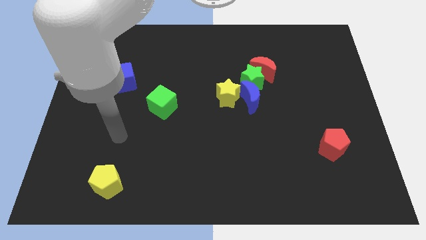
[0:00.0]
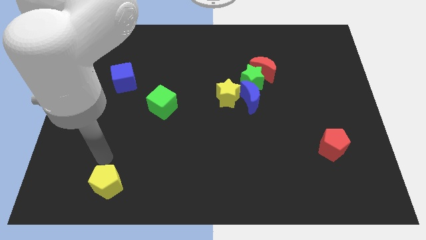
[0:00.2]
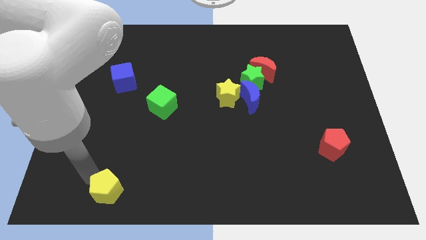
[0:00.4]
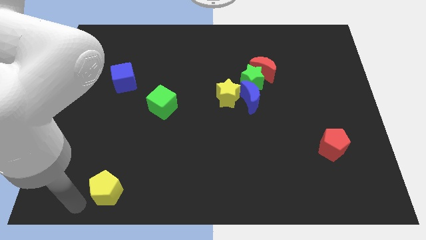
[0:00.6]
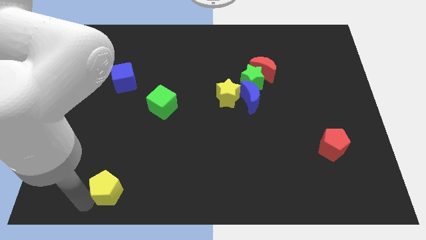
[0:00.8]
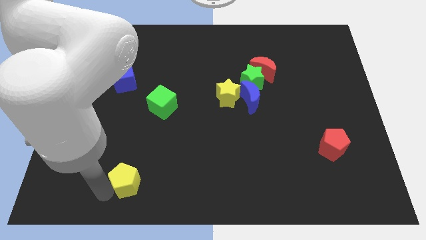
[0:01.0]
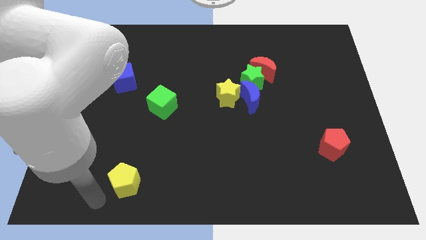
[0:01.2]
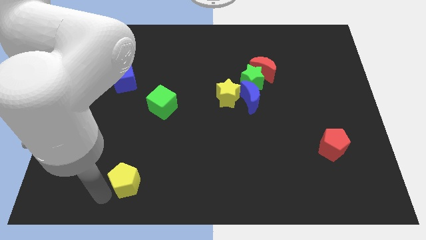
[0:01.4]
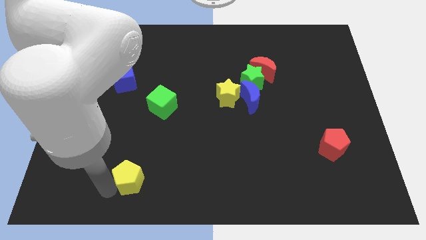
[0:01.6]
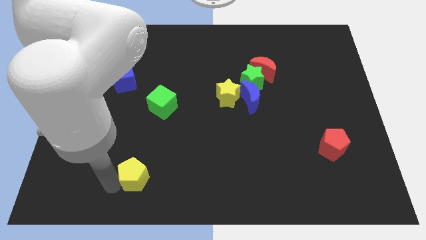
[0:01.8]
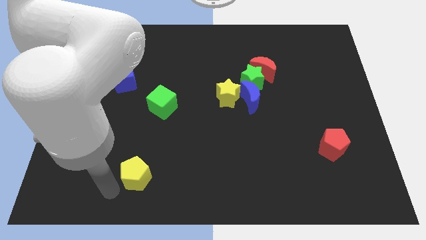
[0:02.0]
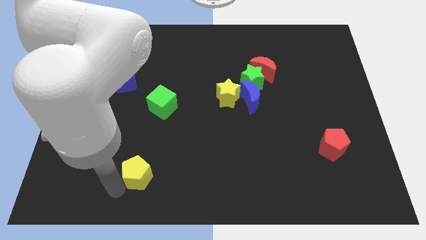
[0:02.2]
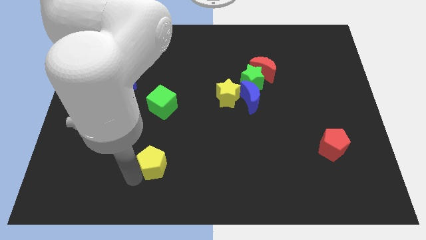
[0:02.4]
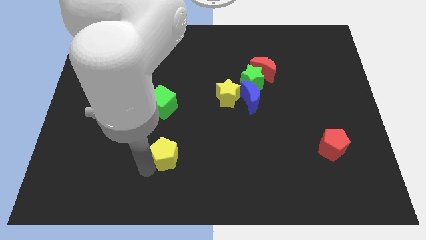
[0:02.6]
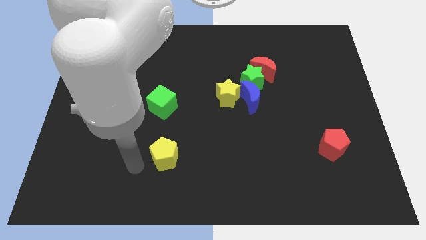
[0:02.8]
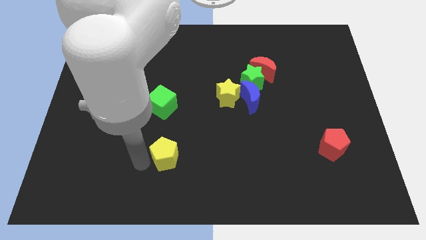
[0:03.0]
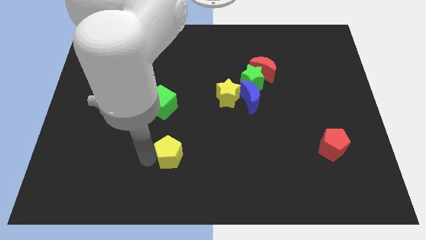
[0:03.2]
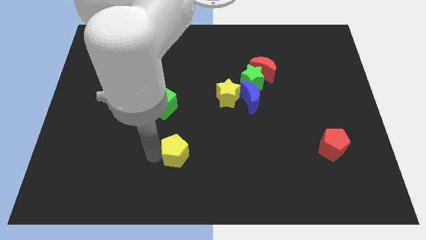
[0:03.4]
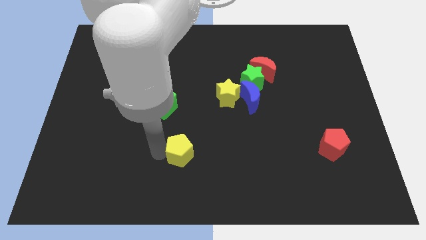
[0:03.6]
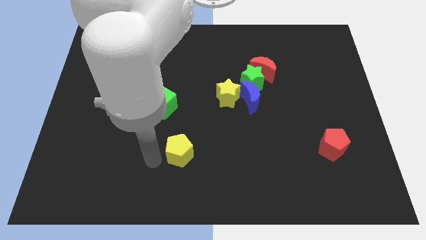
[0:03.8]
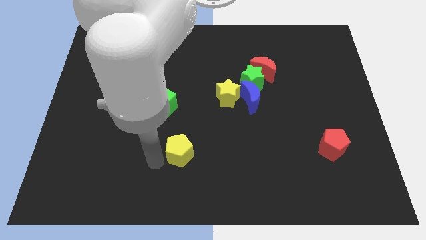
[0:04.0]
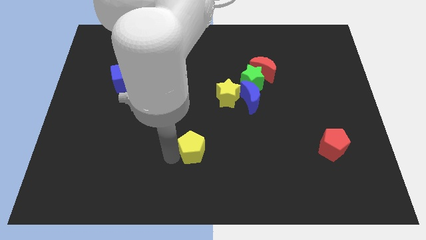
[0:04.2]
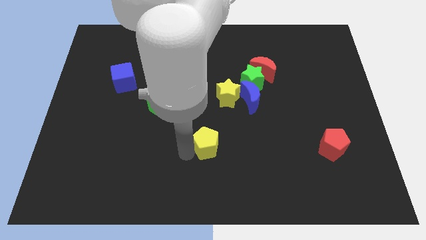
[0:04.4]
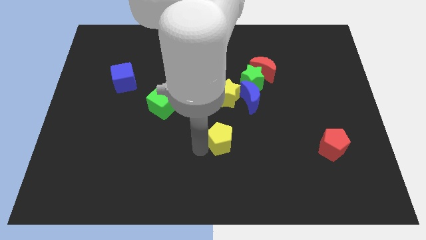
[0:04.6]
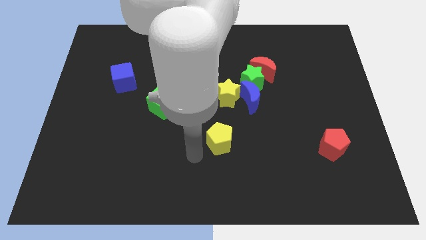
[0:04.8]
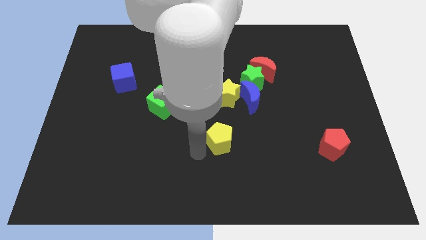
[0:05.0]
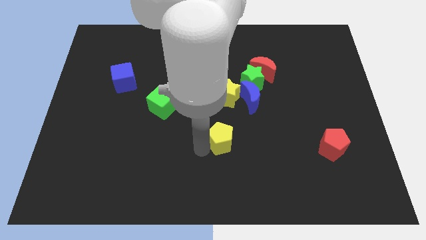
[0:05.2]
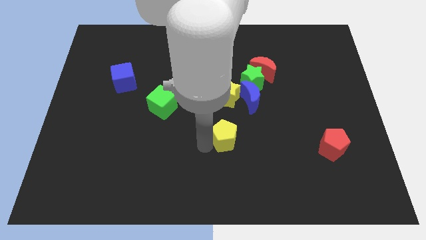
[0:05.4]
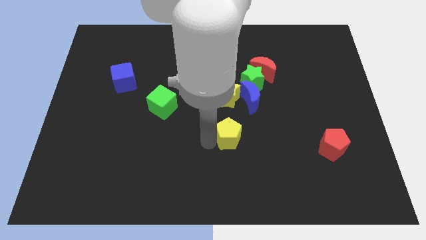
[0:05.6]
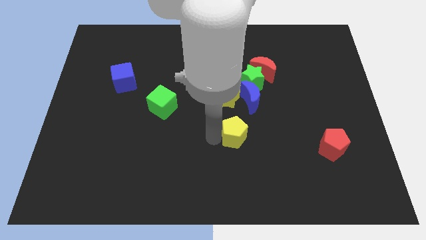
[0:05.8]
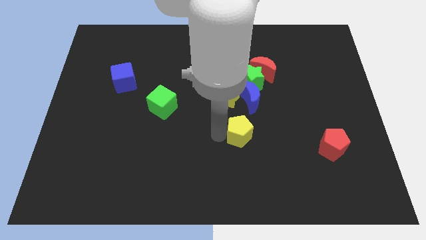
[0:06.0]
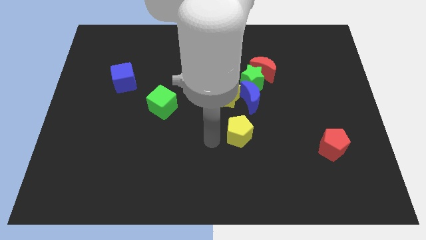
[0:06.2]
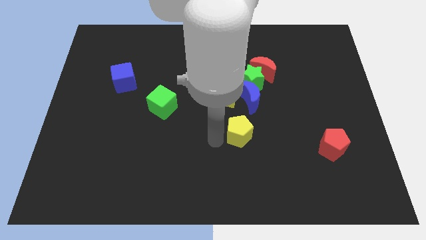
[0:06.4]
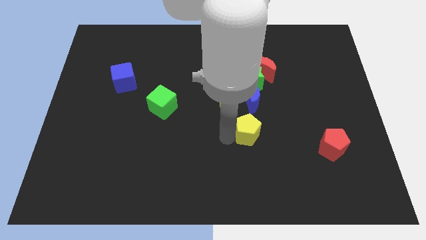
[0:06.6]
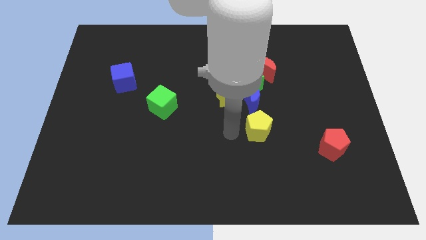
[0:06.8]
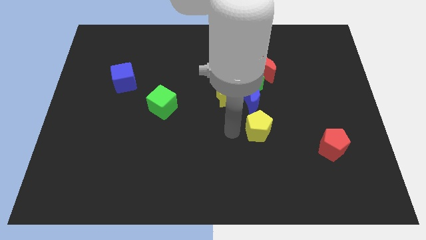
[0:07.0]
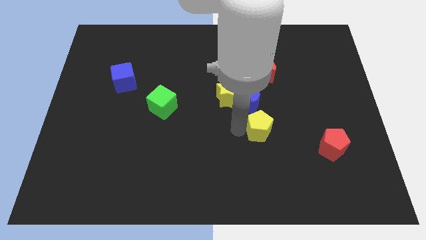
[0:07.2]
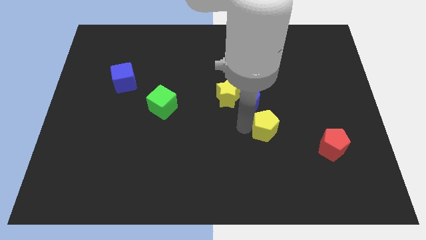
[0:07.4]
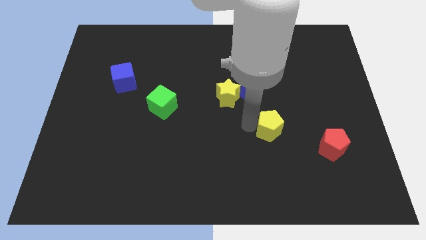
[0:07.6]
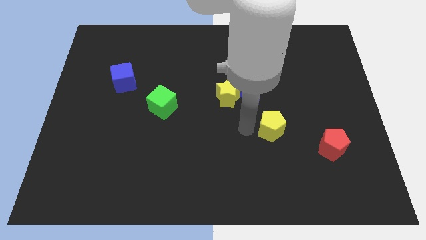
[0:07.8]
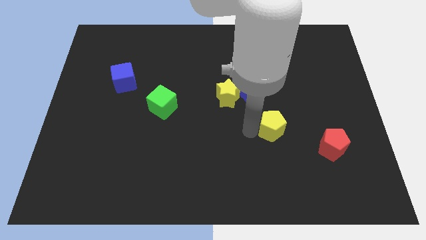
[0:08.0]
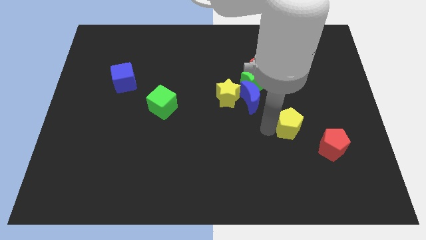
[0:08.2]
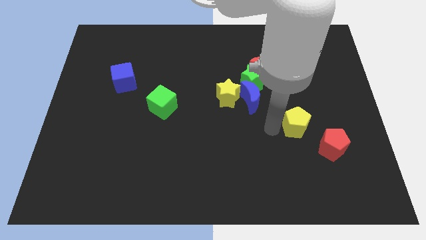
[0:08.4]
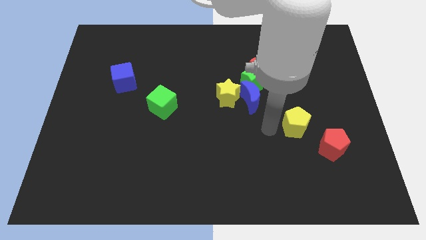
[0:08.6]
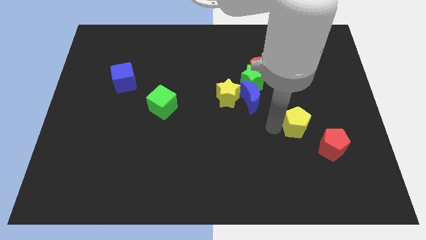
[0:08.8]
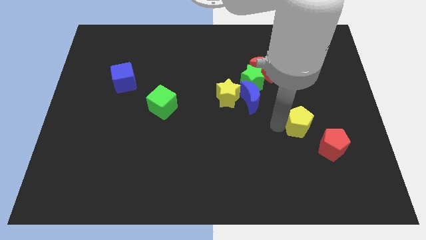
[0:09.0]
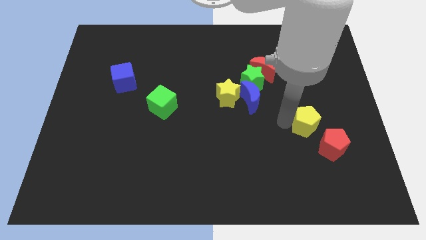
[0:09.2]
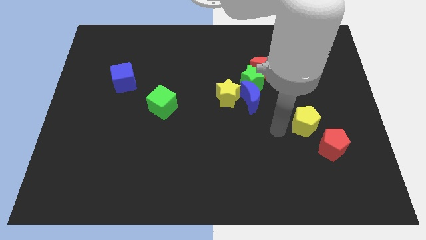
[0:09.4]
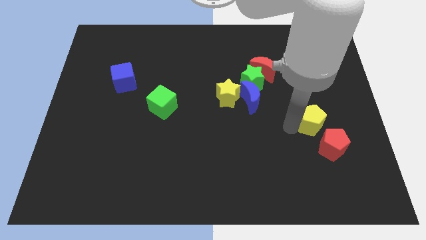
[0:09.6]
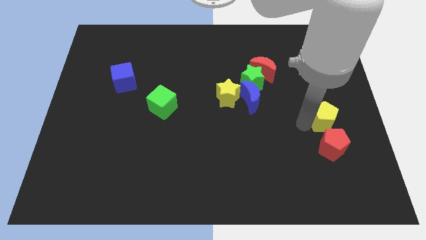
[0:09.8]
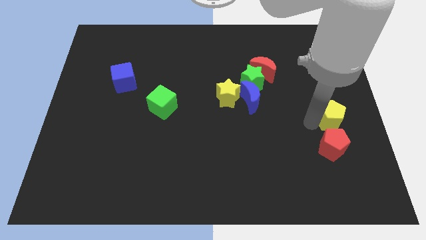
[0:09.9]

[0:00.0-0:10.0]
push the yellow pentagon to the right side
